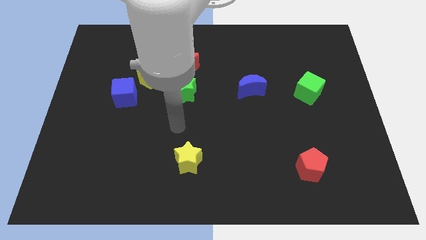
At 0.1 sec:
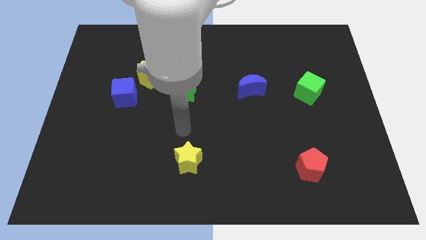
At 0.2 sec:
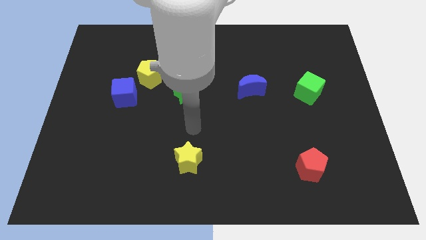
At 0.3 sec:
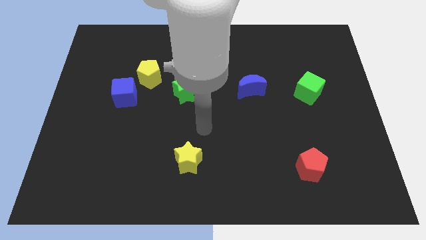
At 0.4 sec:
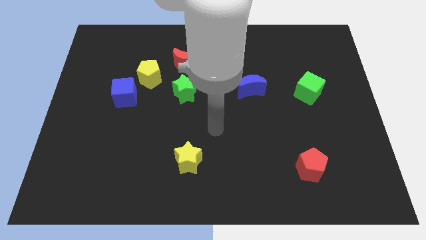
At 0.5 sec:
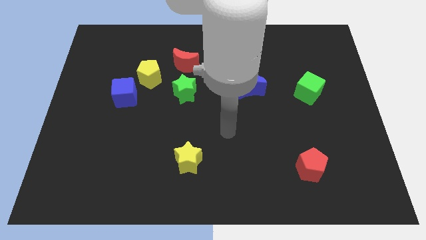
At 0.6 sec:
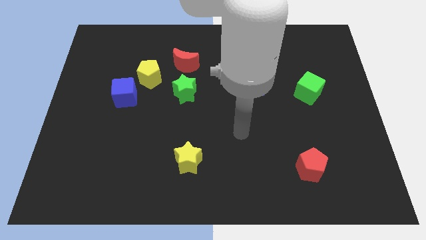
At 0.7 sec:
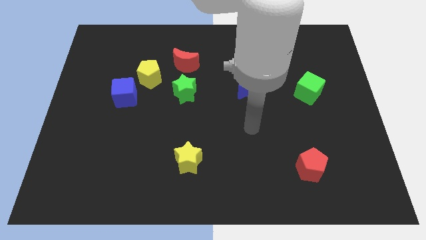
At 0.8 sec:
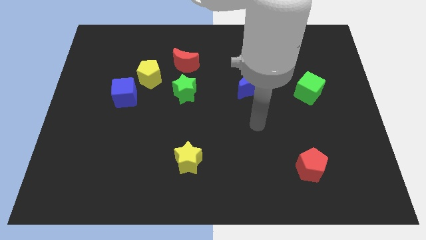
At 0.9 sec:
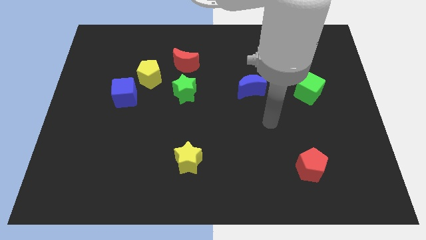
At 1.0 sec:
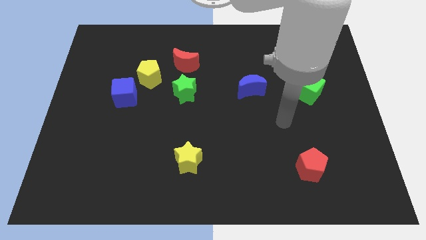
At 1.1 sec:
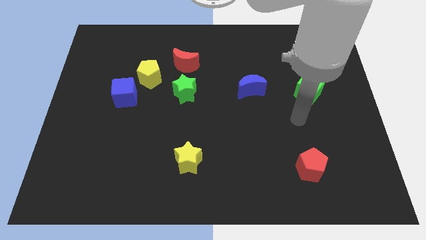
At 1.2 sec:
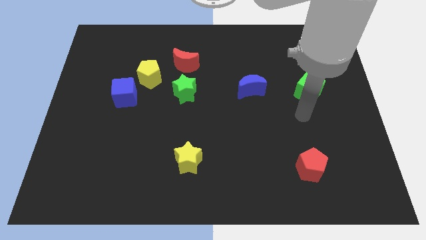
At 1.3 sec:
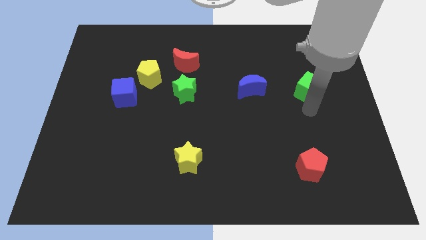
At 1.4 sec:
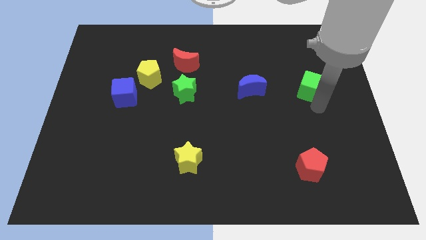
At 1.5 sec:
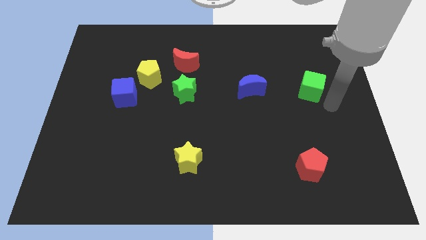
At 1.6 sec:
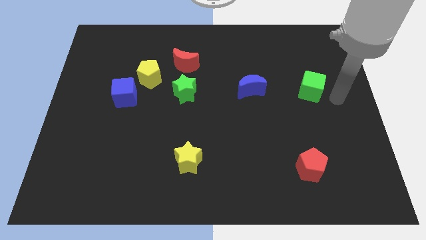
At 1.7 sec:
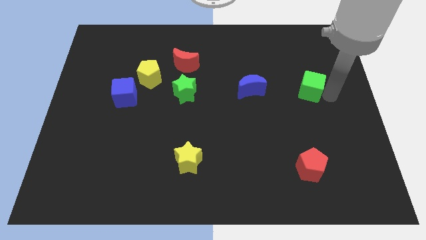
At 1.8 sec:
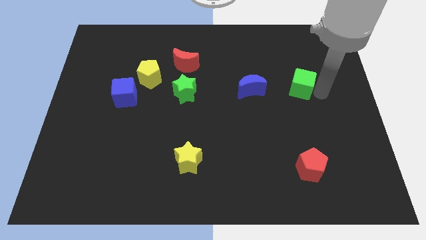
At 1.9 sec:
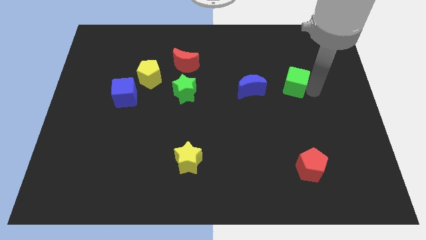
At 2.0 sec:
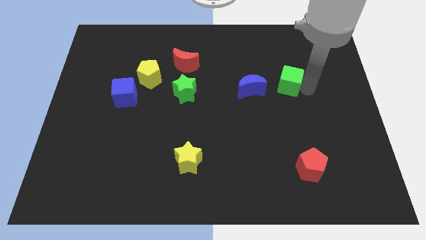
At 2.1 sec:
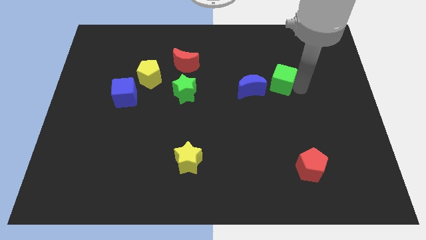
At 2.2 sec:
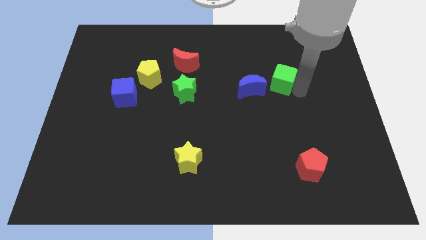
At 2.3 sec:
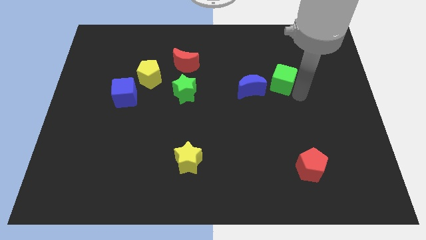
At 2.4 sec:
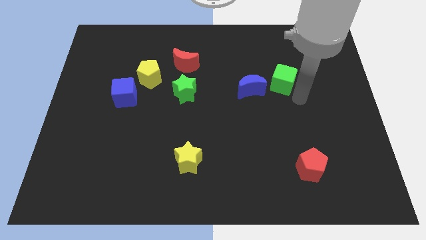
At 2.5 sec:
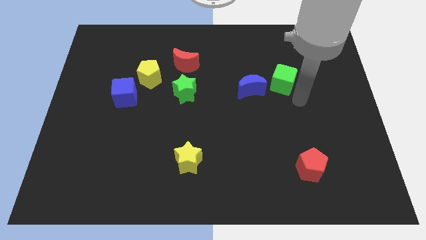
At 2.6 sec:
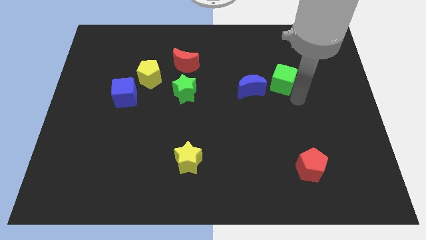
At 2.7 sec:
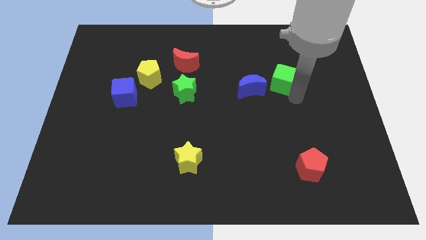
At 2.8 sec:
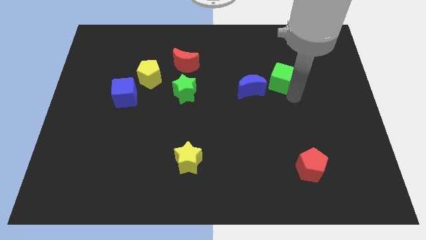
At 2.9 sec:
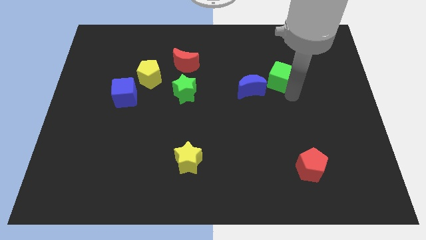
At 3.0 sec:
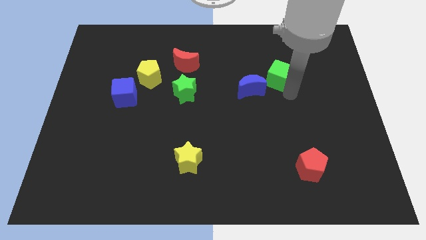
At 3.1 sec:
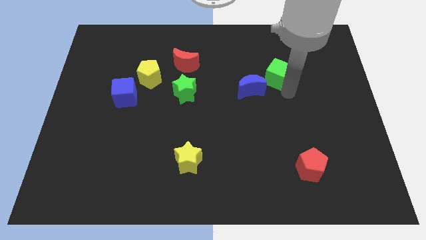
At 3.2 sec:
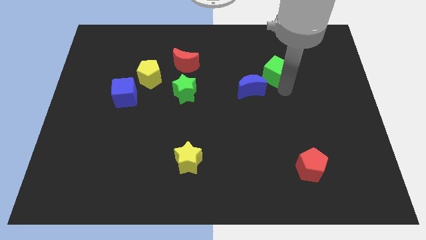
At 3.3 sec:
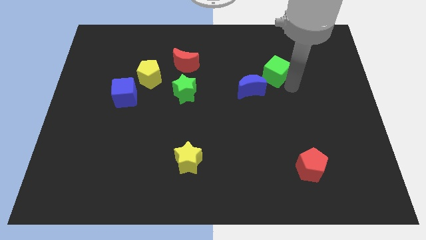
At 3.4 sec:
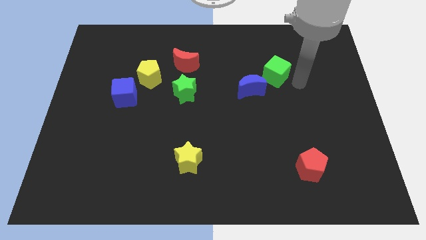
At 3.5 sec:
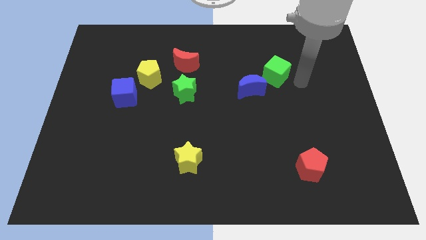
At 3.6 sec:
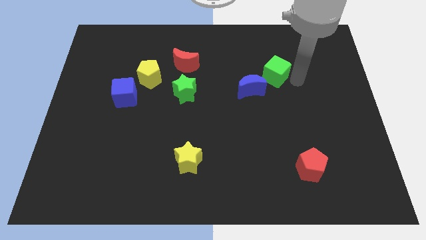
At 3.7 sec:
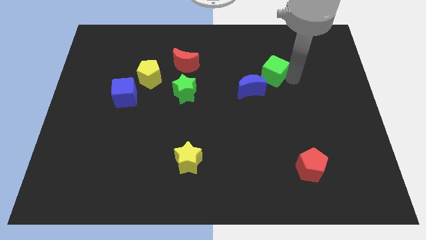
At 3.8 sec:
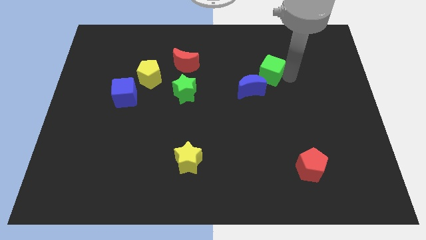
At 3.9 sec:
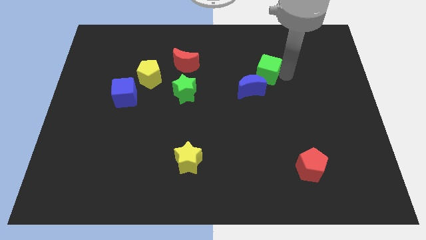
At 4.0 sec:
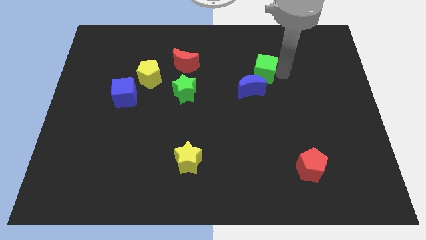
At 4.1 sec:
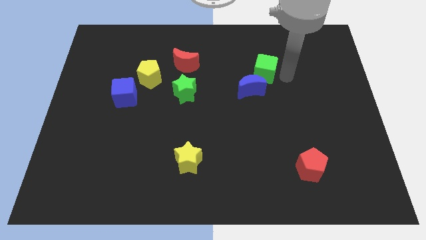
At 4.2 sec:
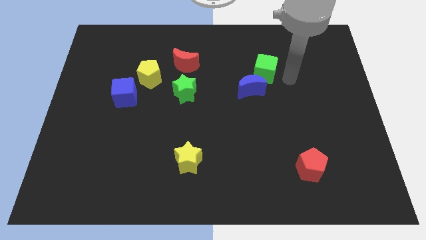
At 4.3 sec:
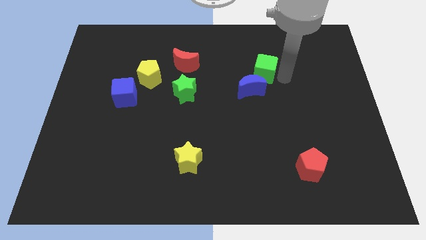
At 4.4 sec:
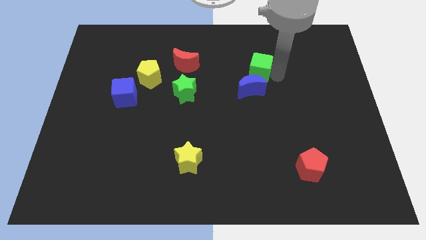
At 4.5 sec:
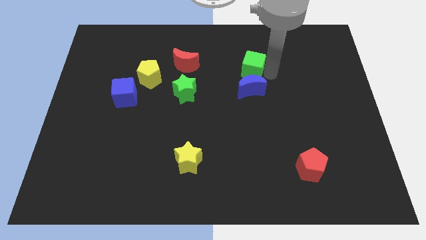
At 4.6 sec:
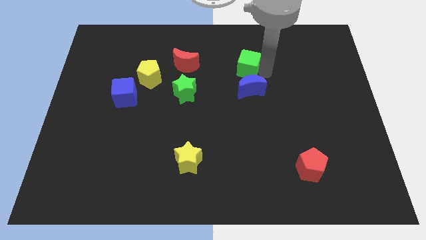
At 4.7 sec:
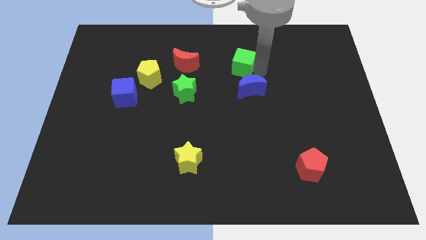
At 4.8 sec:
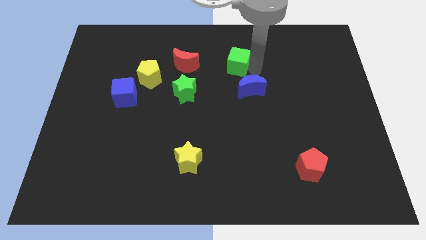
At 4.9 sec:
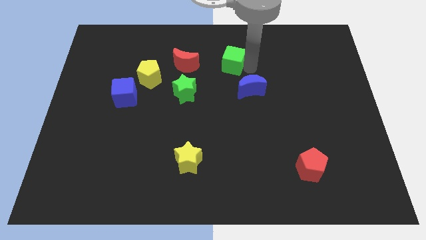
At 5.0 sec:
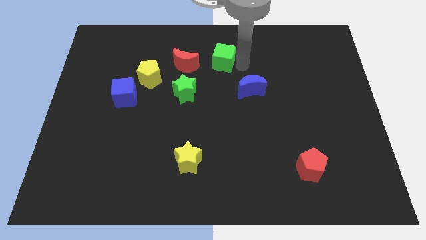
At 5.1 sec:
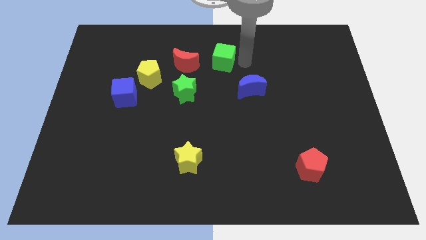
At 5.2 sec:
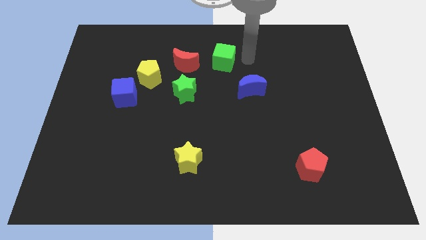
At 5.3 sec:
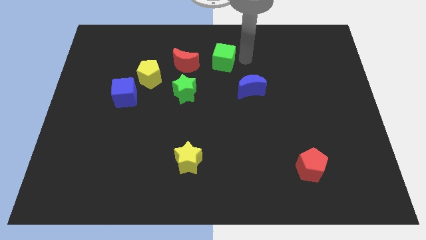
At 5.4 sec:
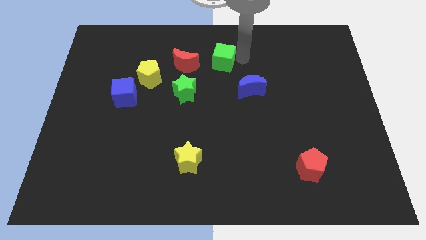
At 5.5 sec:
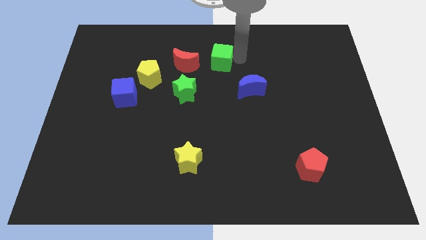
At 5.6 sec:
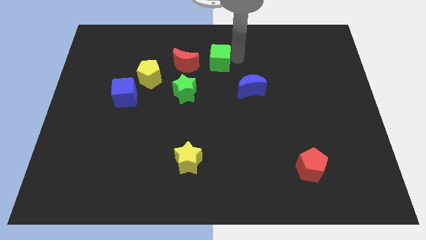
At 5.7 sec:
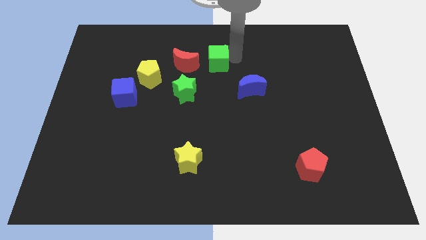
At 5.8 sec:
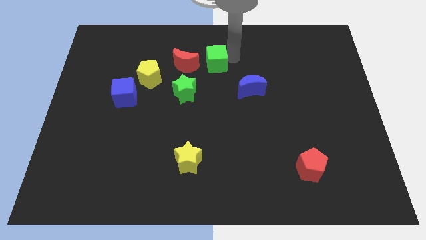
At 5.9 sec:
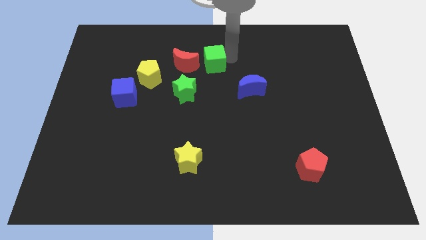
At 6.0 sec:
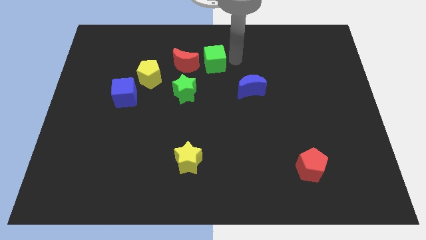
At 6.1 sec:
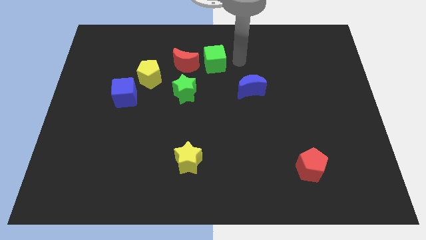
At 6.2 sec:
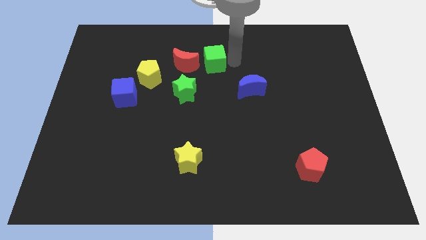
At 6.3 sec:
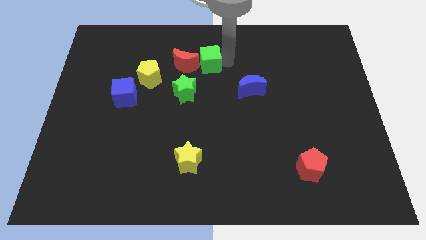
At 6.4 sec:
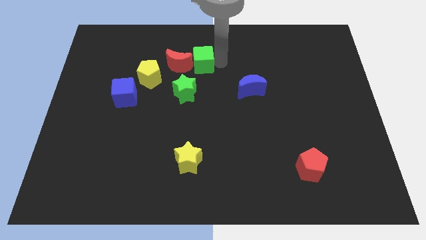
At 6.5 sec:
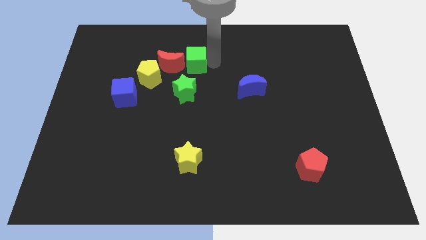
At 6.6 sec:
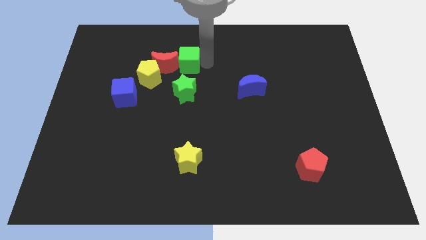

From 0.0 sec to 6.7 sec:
push the green cube towards the red moon

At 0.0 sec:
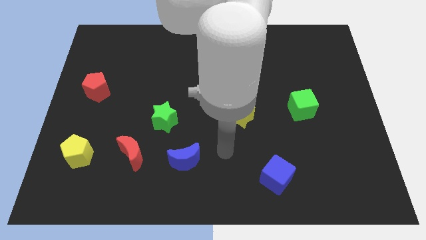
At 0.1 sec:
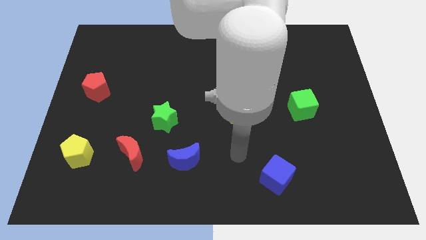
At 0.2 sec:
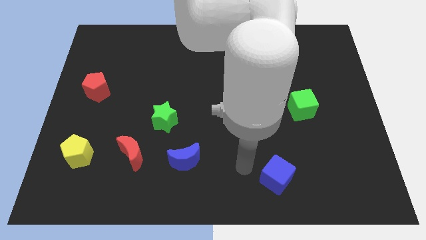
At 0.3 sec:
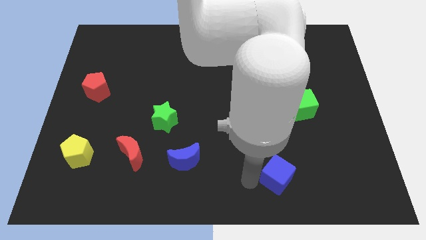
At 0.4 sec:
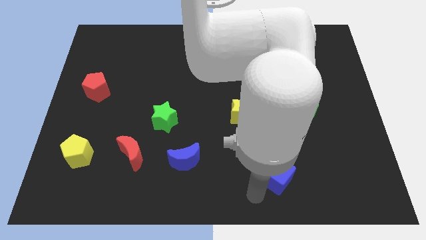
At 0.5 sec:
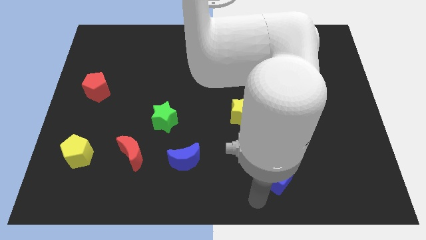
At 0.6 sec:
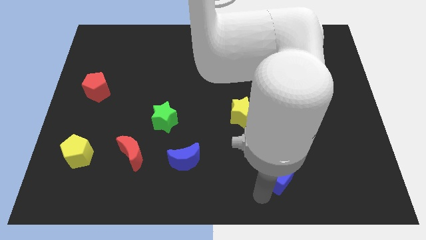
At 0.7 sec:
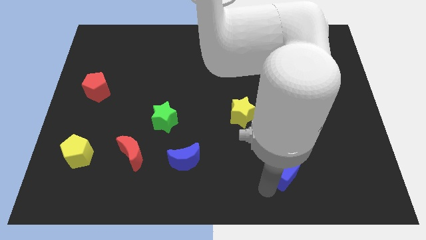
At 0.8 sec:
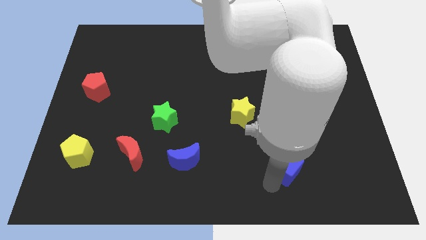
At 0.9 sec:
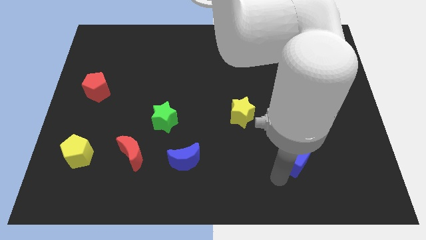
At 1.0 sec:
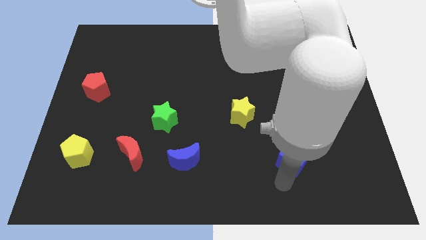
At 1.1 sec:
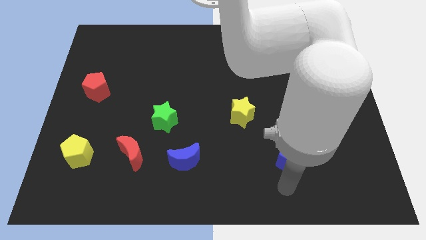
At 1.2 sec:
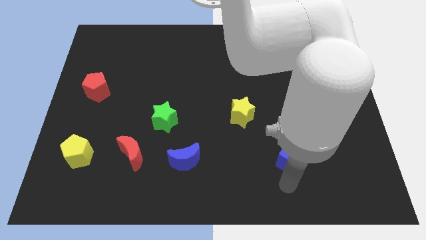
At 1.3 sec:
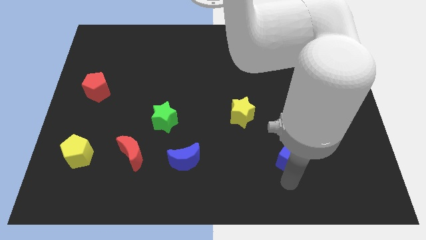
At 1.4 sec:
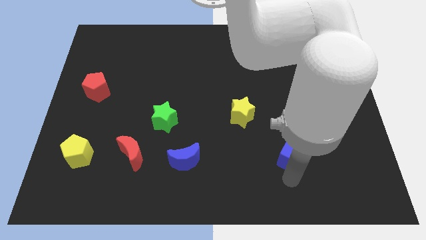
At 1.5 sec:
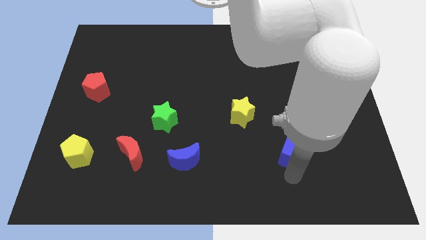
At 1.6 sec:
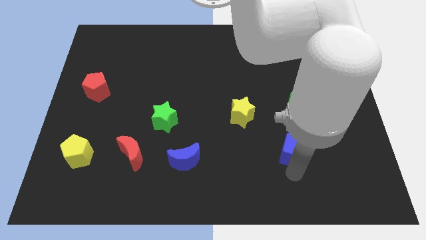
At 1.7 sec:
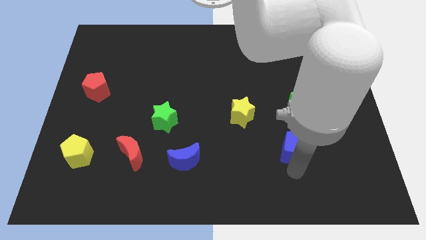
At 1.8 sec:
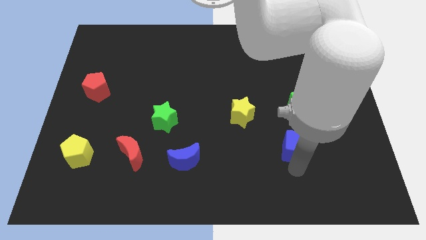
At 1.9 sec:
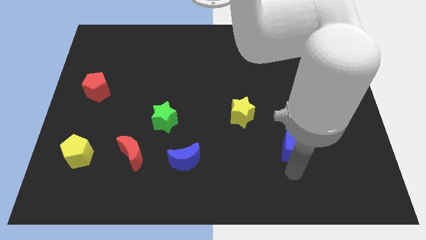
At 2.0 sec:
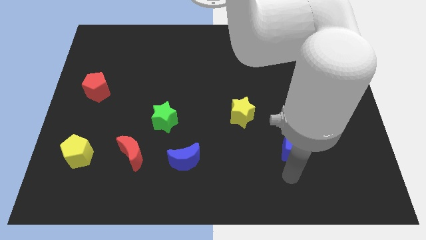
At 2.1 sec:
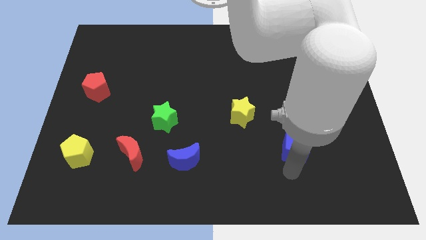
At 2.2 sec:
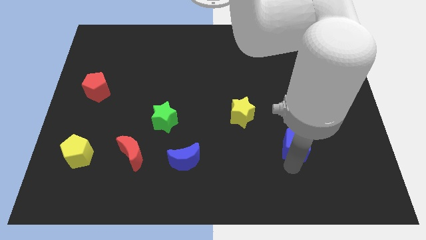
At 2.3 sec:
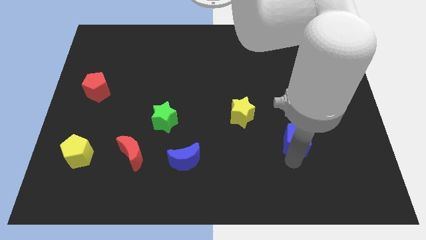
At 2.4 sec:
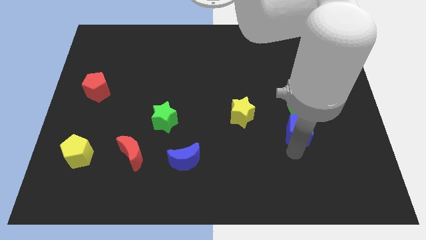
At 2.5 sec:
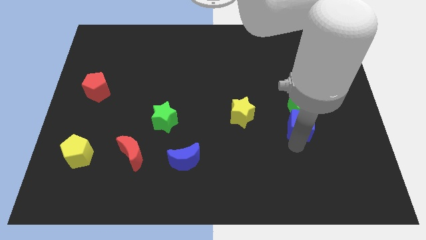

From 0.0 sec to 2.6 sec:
slide the blue cube towards the green cube
